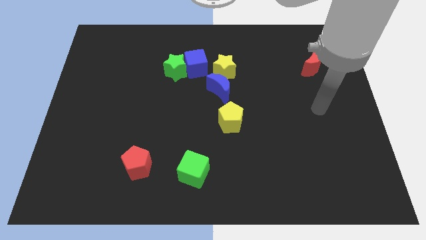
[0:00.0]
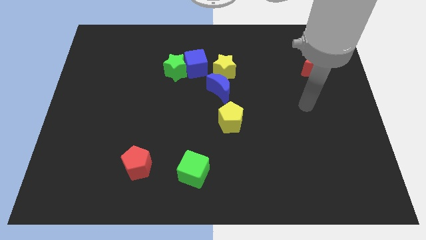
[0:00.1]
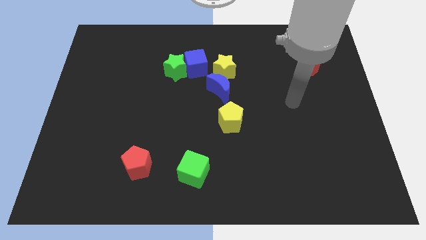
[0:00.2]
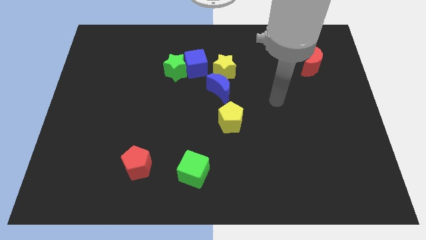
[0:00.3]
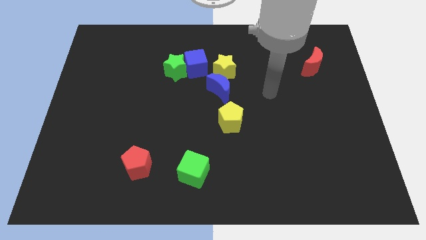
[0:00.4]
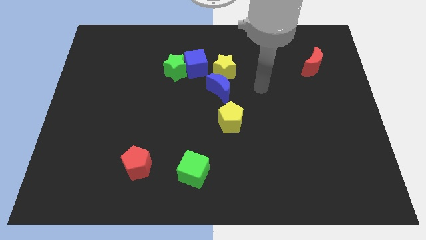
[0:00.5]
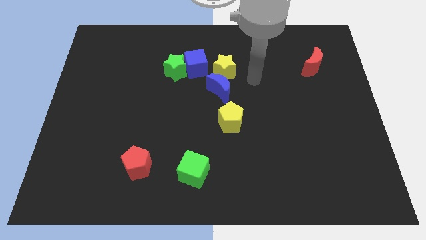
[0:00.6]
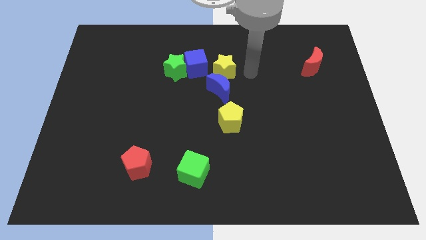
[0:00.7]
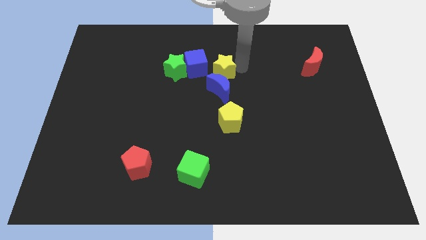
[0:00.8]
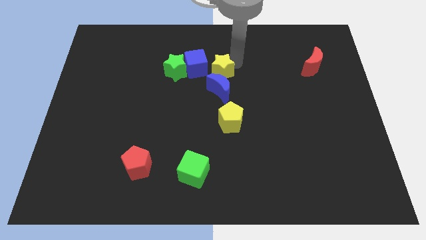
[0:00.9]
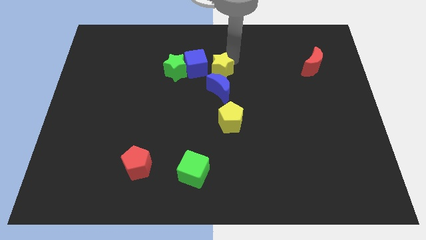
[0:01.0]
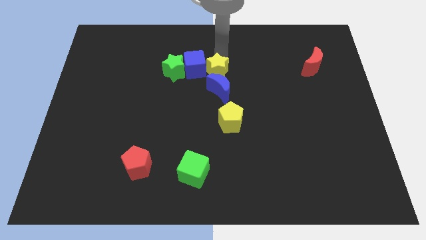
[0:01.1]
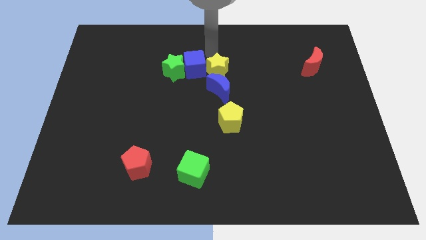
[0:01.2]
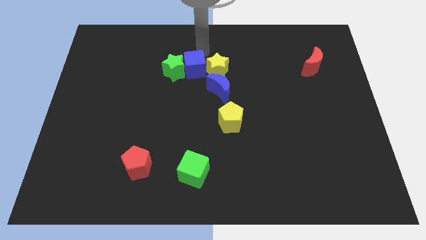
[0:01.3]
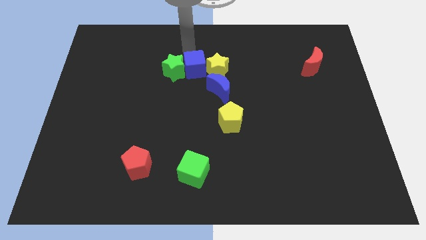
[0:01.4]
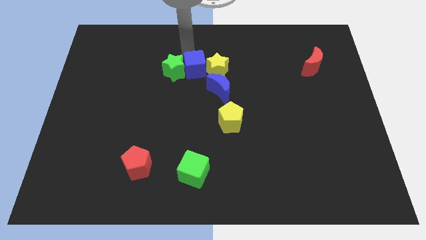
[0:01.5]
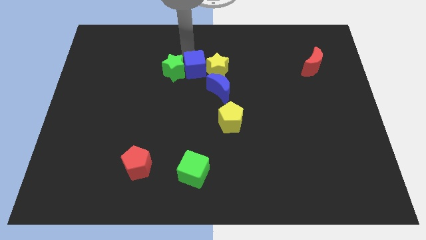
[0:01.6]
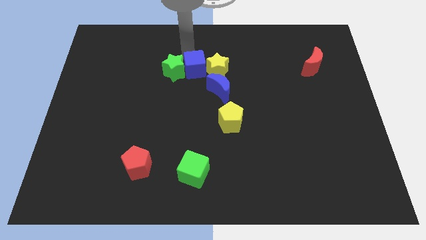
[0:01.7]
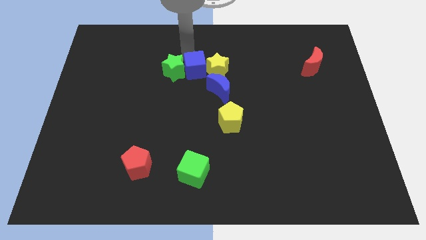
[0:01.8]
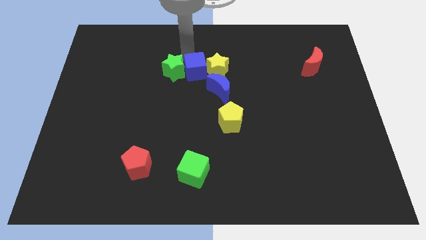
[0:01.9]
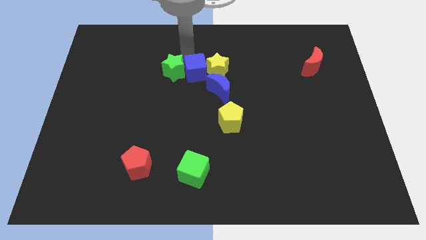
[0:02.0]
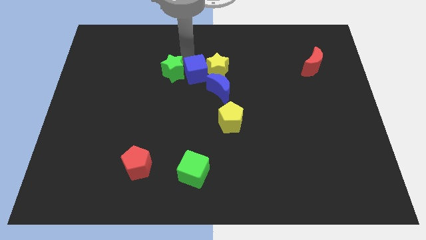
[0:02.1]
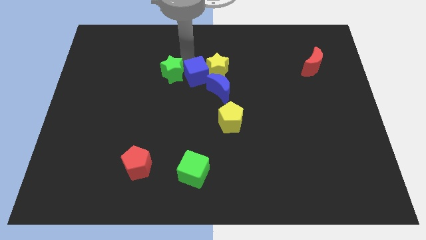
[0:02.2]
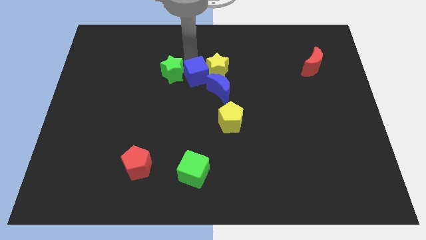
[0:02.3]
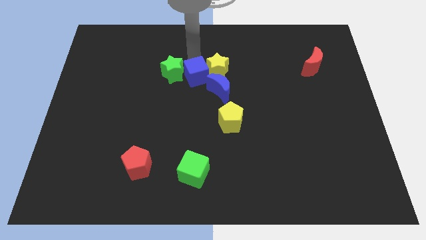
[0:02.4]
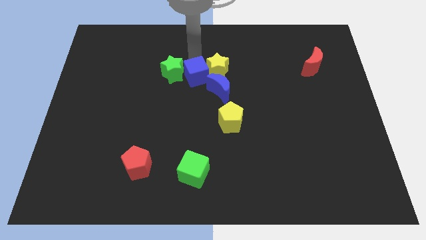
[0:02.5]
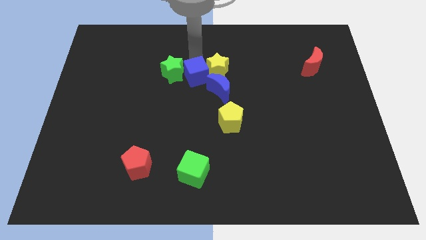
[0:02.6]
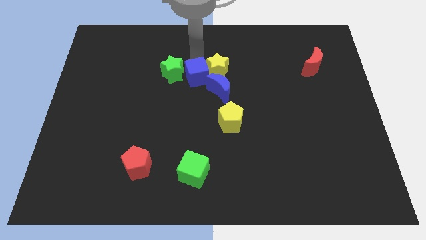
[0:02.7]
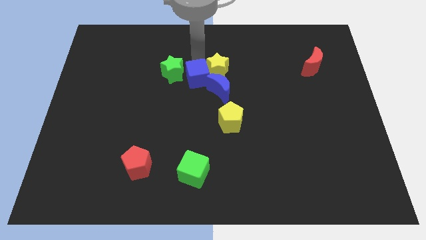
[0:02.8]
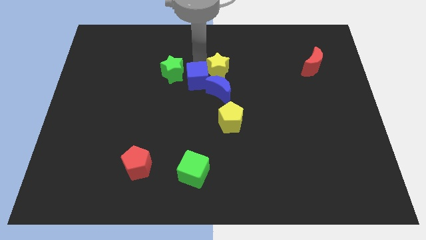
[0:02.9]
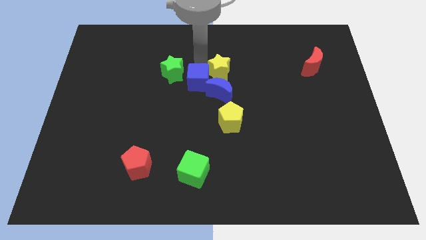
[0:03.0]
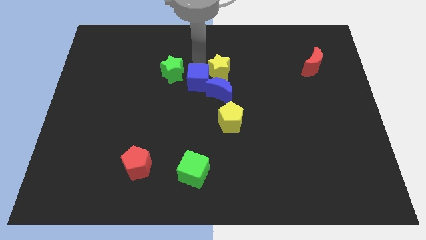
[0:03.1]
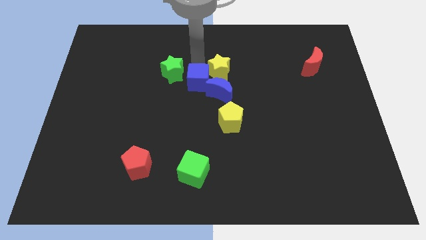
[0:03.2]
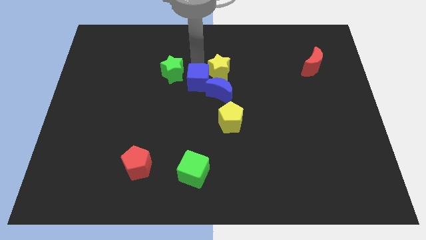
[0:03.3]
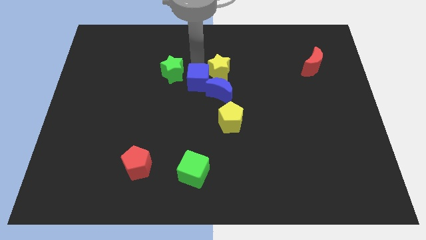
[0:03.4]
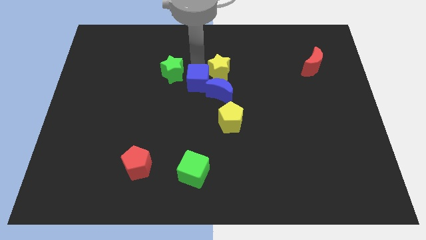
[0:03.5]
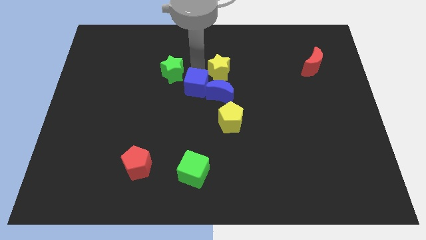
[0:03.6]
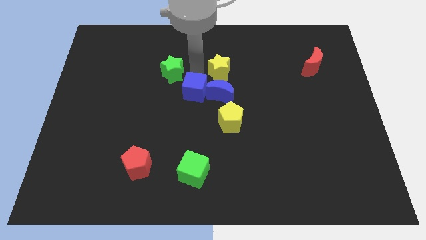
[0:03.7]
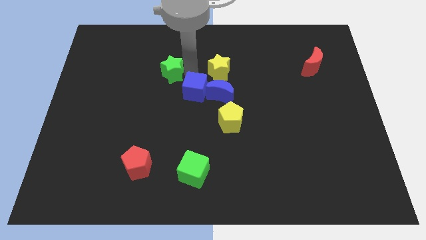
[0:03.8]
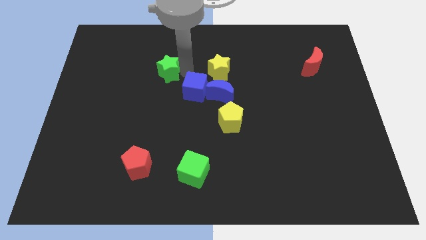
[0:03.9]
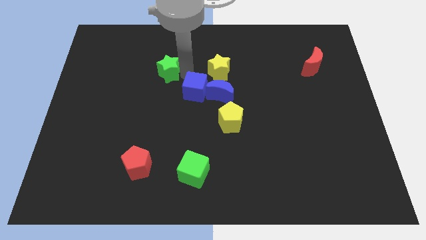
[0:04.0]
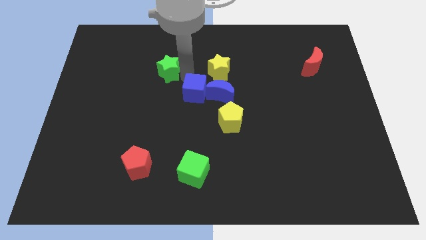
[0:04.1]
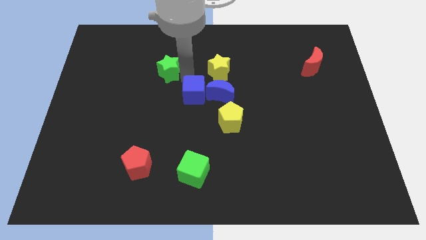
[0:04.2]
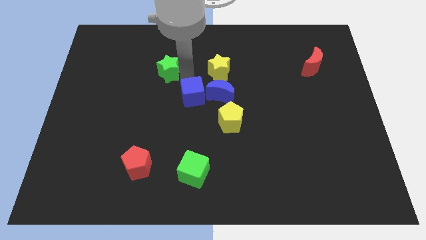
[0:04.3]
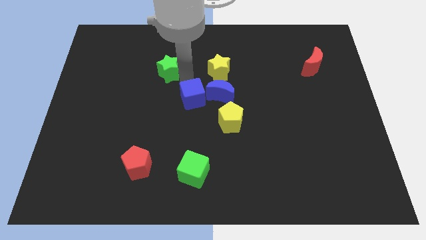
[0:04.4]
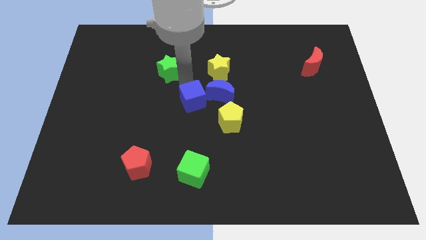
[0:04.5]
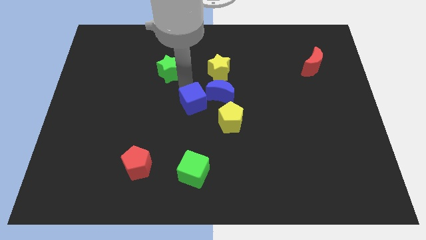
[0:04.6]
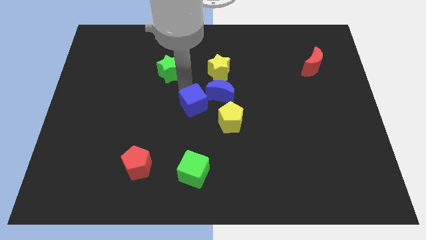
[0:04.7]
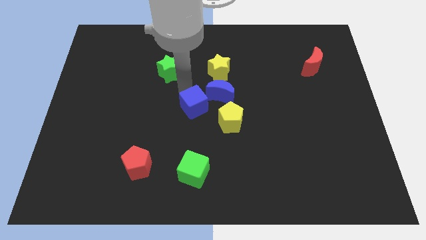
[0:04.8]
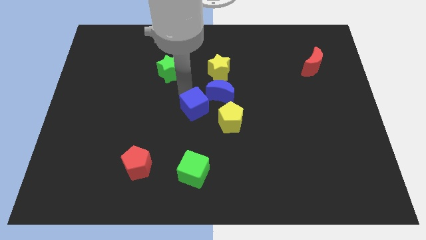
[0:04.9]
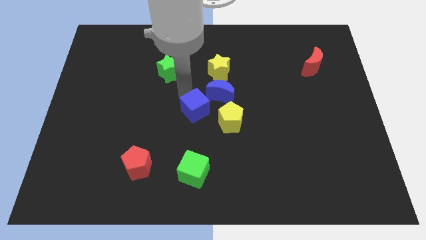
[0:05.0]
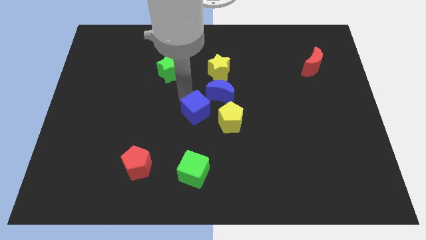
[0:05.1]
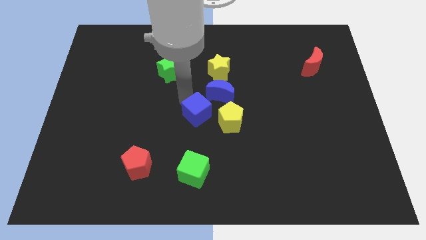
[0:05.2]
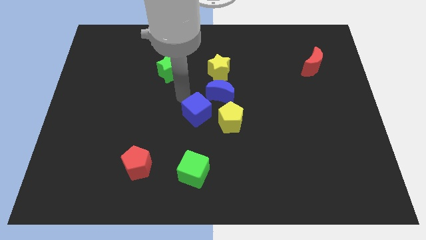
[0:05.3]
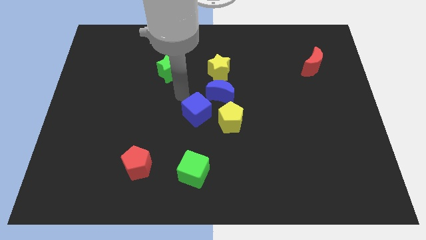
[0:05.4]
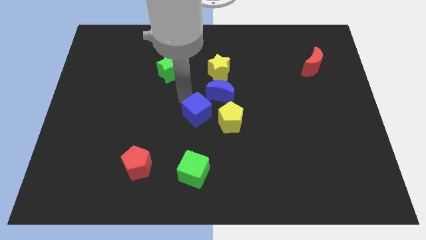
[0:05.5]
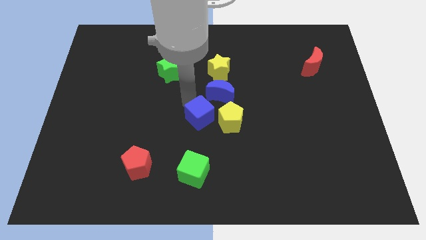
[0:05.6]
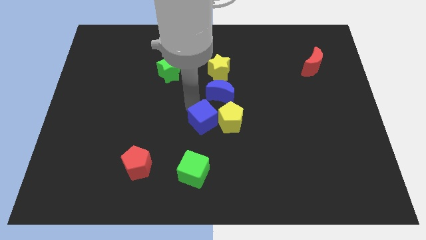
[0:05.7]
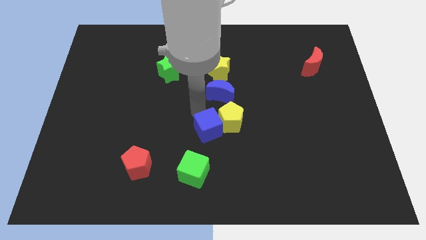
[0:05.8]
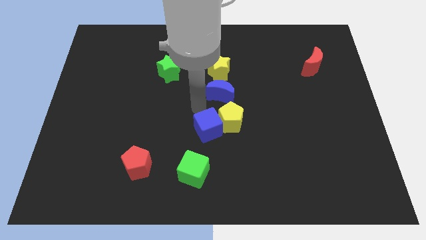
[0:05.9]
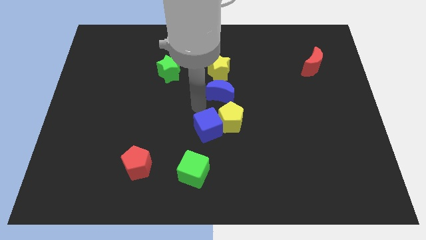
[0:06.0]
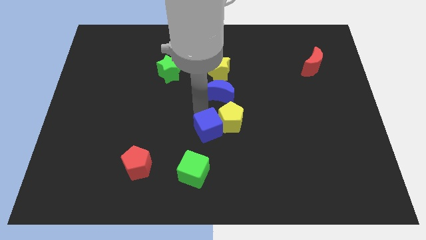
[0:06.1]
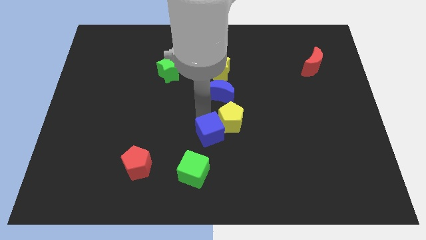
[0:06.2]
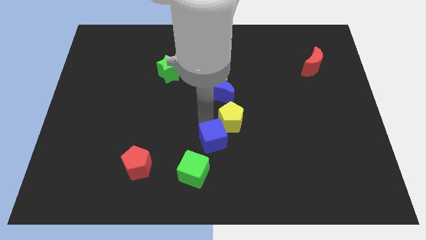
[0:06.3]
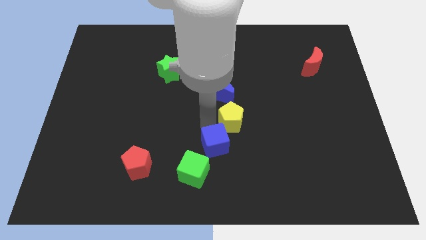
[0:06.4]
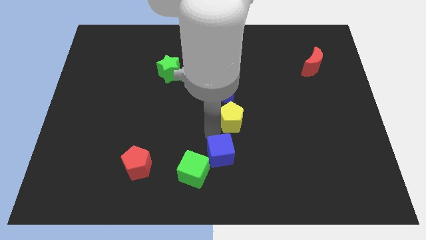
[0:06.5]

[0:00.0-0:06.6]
put the blue cube to the bottom
